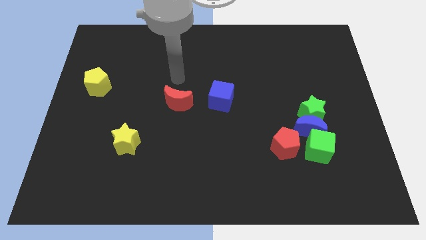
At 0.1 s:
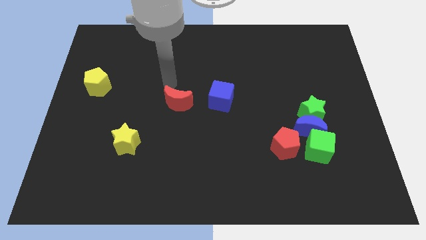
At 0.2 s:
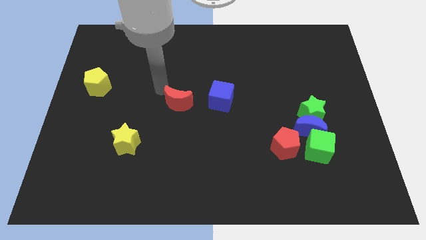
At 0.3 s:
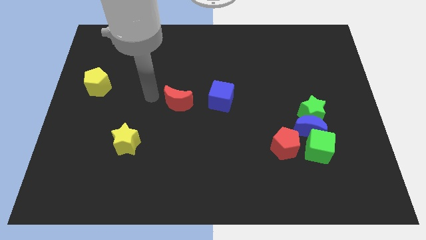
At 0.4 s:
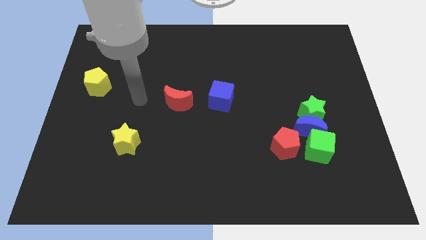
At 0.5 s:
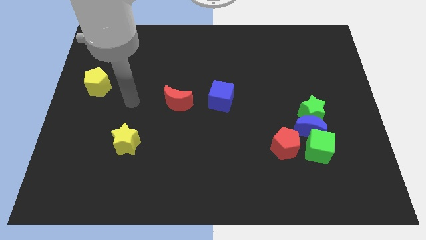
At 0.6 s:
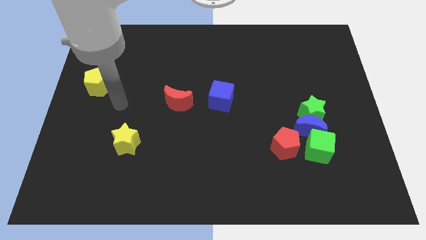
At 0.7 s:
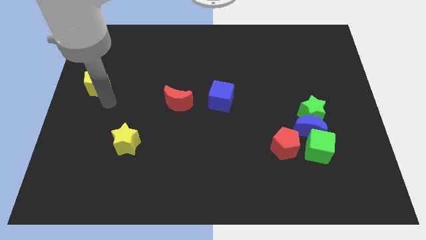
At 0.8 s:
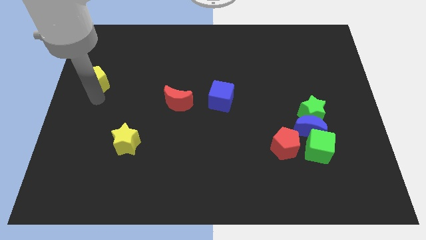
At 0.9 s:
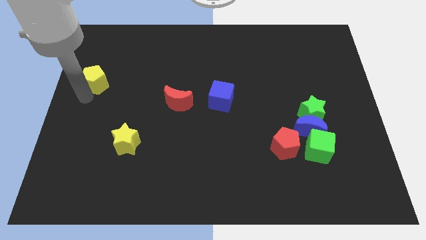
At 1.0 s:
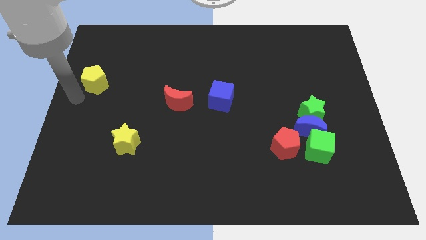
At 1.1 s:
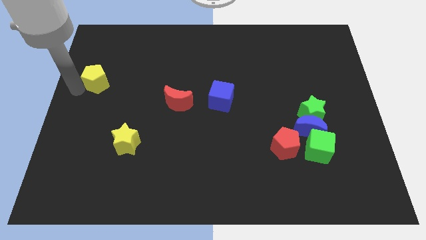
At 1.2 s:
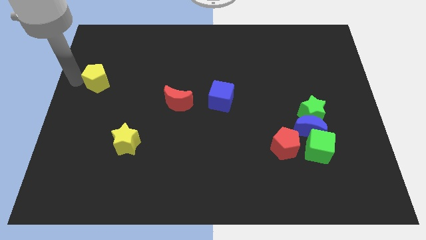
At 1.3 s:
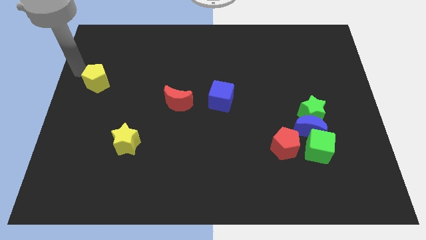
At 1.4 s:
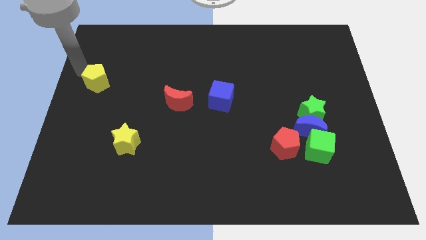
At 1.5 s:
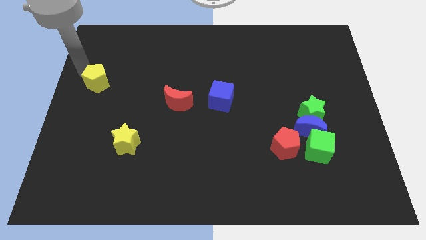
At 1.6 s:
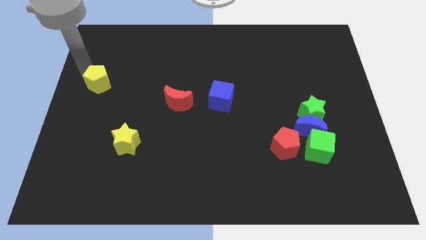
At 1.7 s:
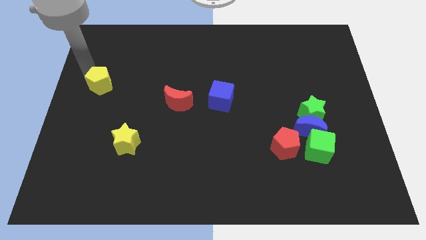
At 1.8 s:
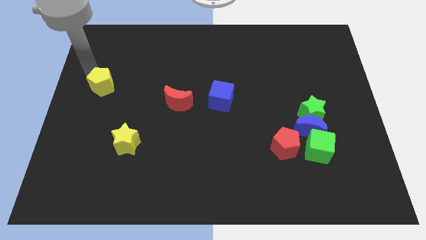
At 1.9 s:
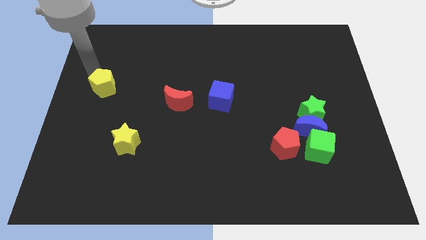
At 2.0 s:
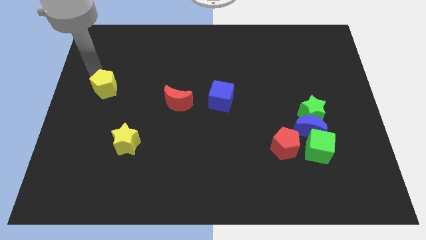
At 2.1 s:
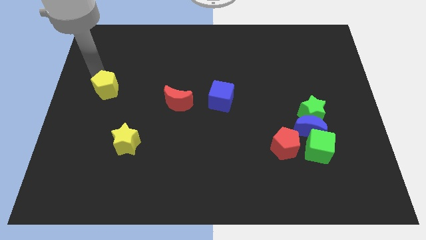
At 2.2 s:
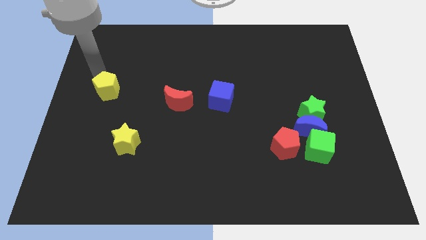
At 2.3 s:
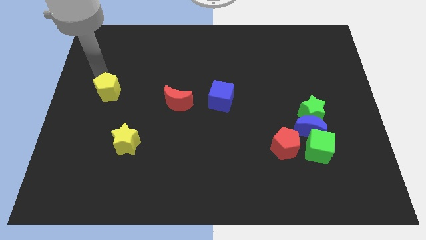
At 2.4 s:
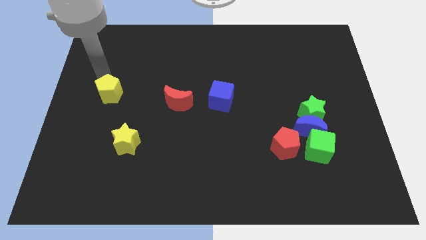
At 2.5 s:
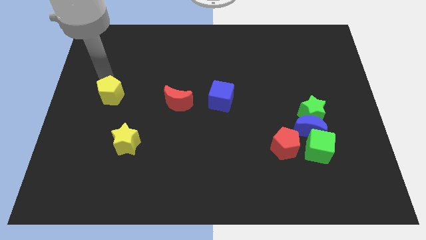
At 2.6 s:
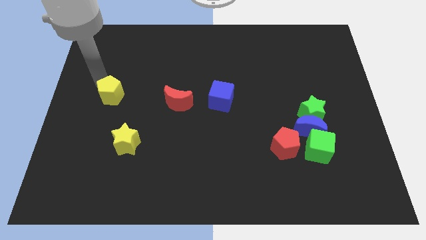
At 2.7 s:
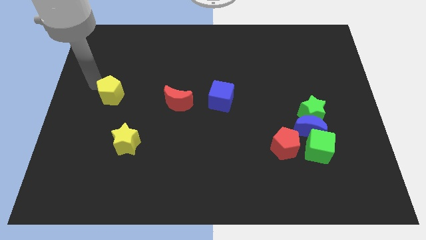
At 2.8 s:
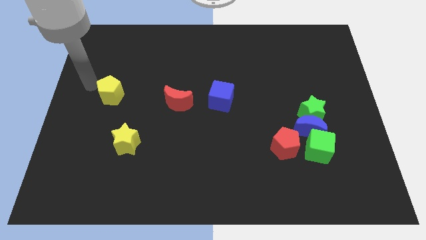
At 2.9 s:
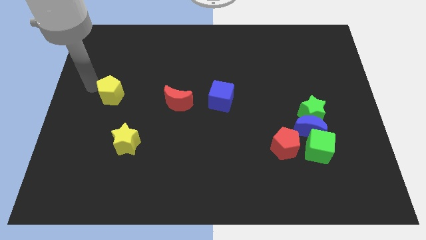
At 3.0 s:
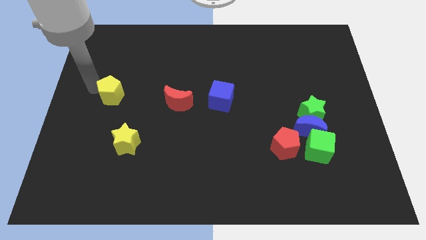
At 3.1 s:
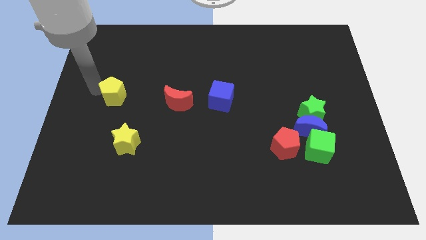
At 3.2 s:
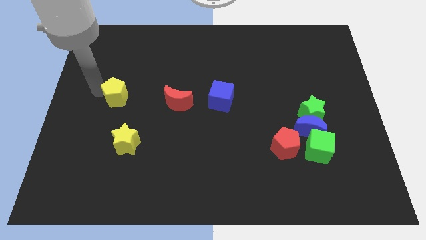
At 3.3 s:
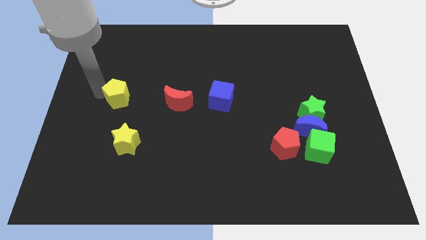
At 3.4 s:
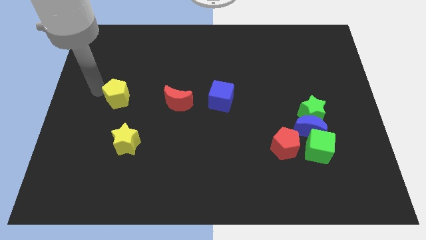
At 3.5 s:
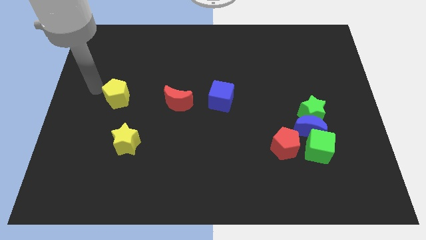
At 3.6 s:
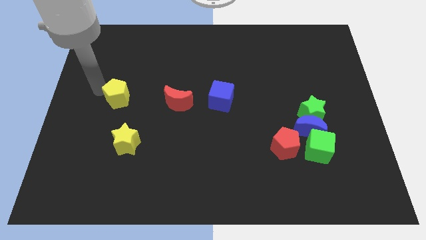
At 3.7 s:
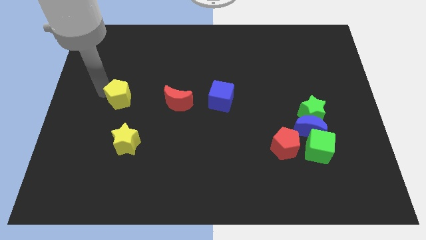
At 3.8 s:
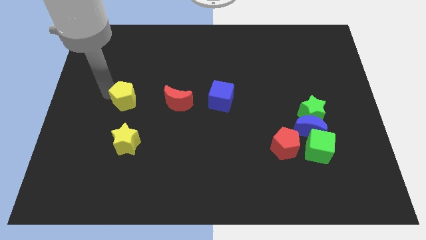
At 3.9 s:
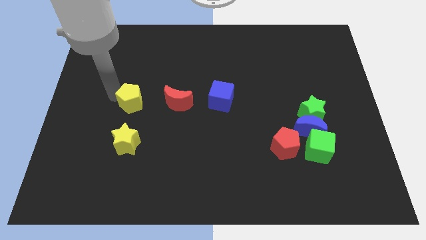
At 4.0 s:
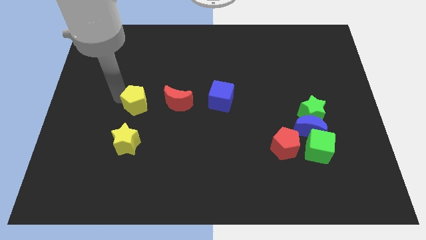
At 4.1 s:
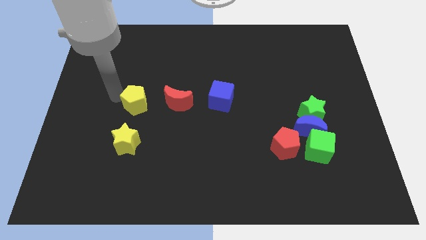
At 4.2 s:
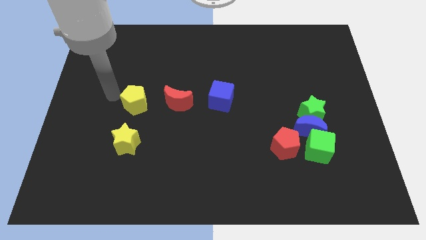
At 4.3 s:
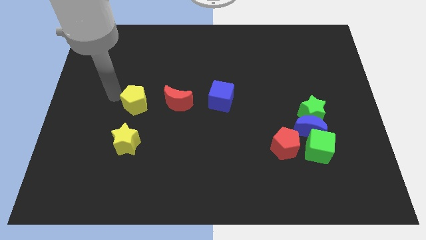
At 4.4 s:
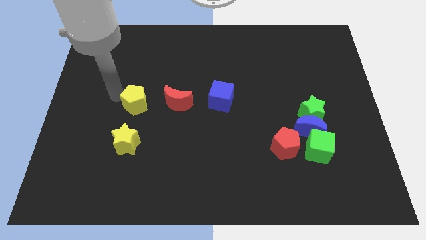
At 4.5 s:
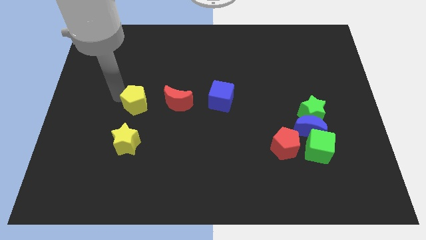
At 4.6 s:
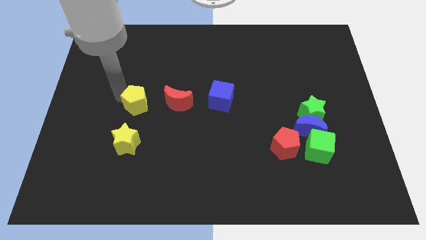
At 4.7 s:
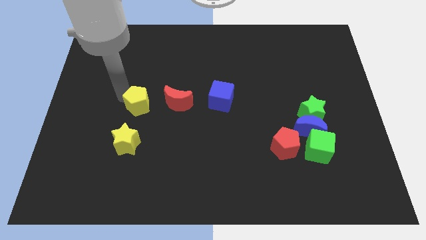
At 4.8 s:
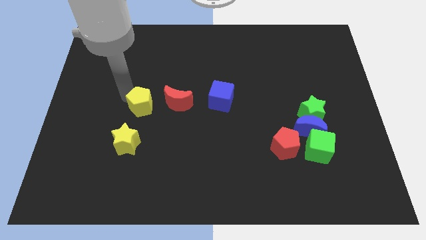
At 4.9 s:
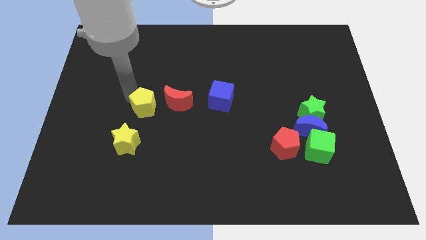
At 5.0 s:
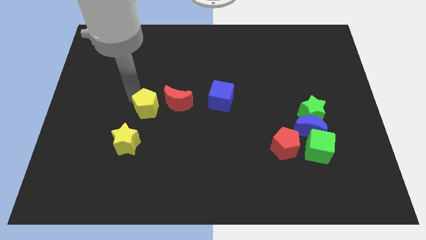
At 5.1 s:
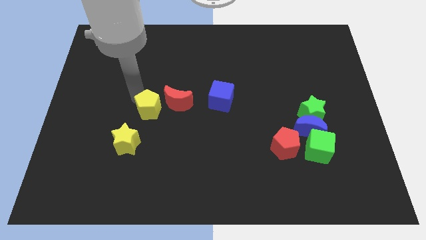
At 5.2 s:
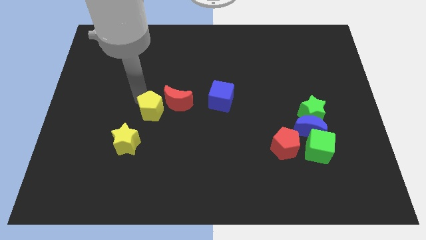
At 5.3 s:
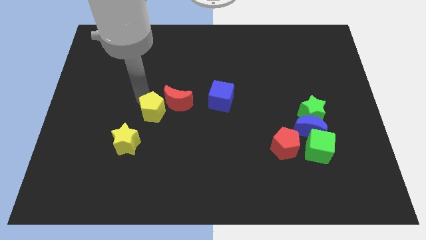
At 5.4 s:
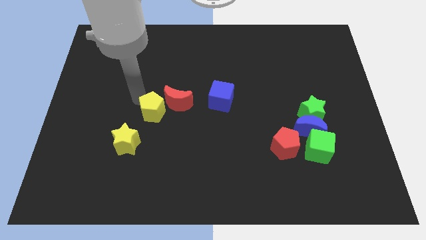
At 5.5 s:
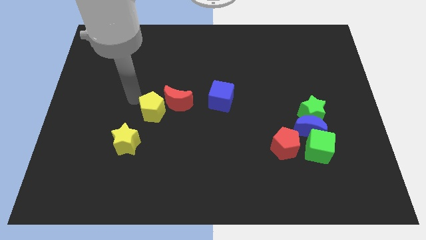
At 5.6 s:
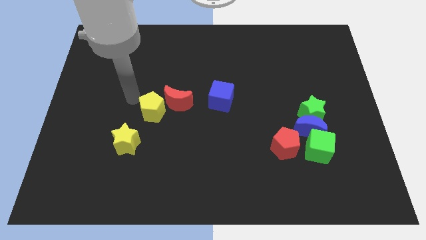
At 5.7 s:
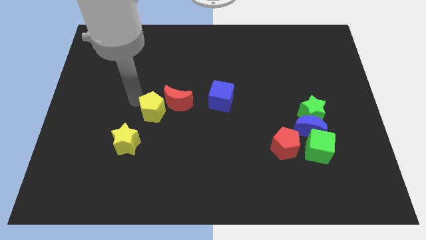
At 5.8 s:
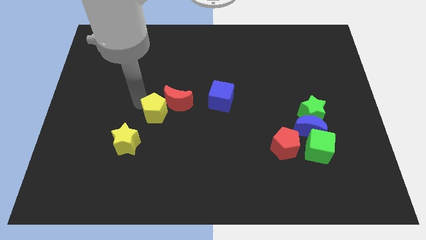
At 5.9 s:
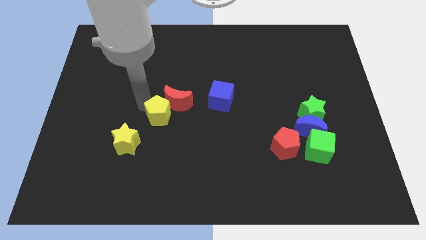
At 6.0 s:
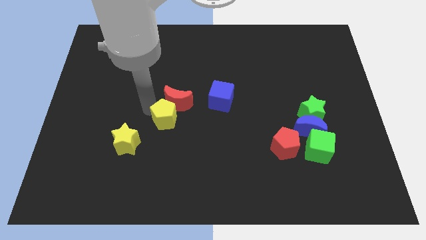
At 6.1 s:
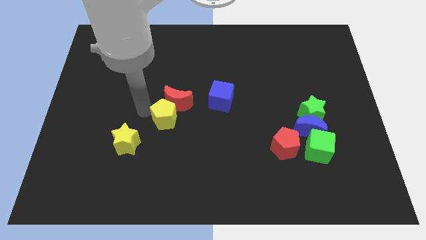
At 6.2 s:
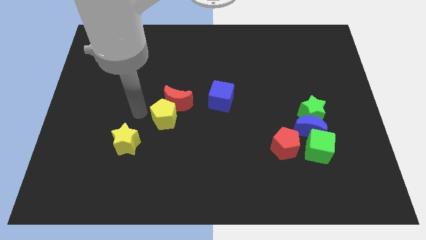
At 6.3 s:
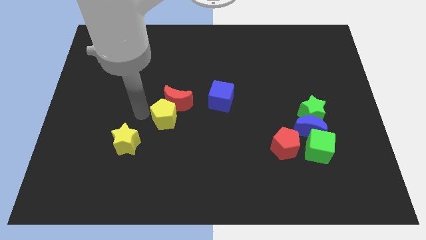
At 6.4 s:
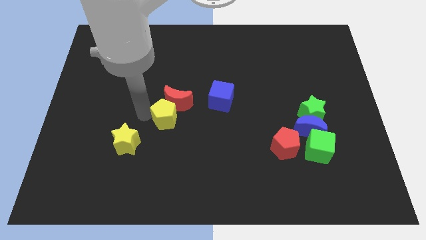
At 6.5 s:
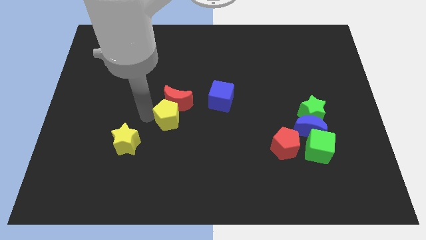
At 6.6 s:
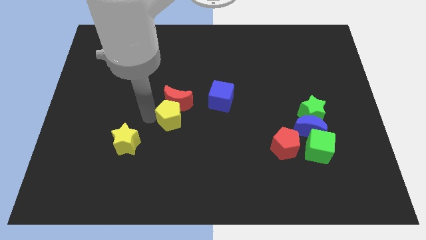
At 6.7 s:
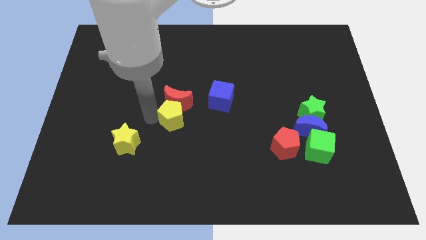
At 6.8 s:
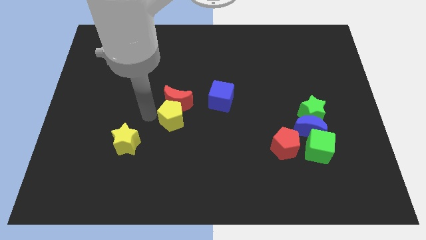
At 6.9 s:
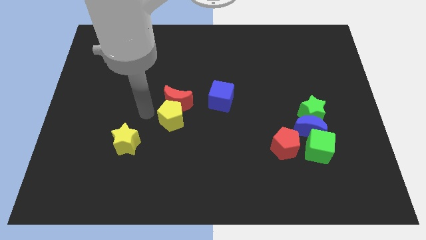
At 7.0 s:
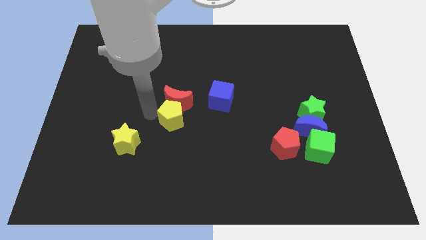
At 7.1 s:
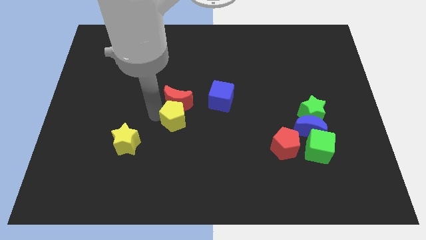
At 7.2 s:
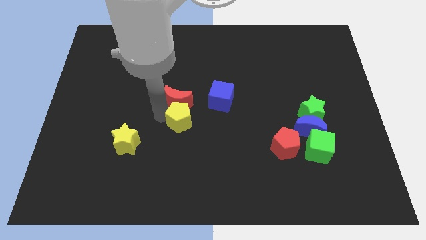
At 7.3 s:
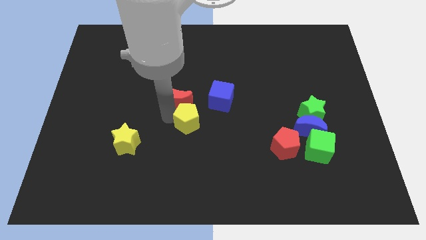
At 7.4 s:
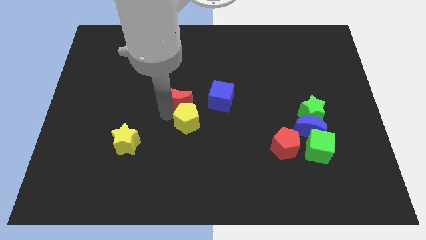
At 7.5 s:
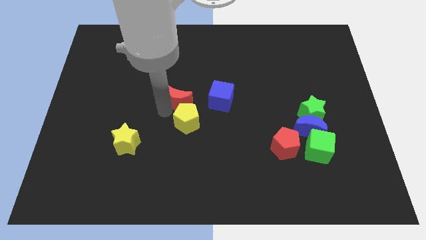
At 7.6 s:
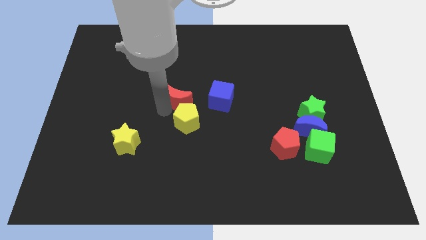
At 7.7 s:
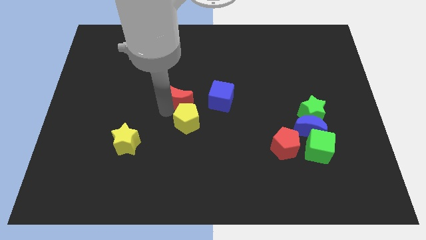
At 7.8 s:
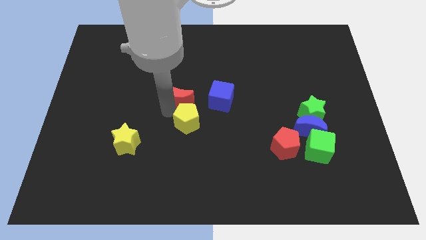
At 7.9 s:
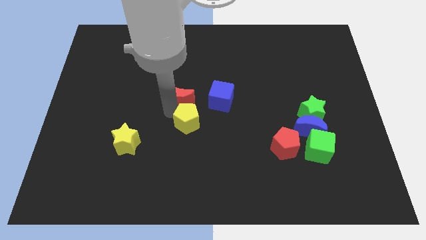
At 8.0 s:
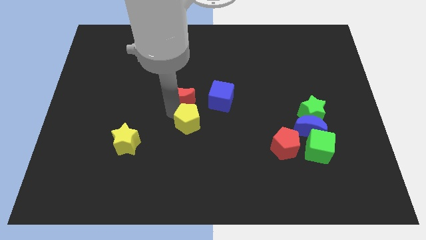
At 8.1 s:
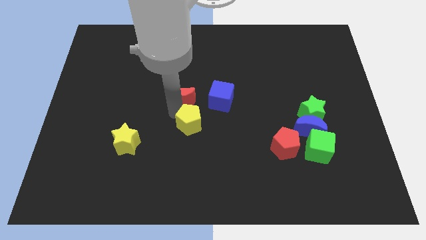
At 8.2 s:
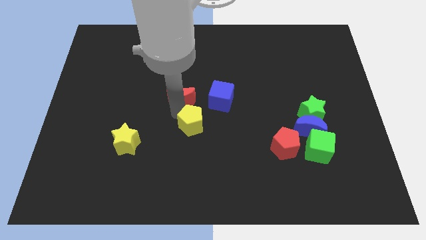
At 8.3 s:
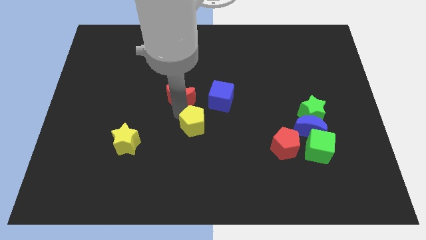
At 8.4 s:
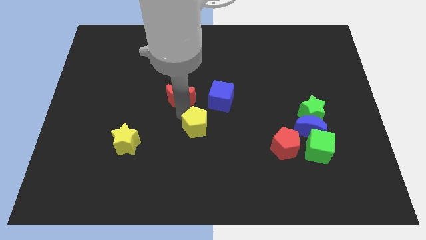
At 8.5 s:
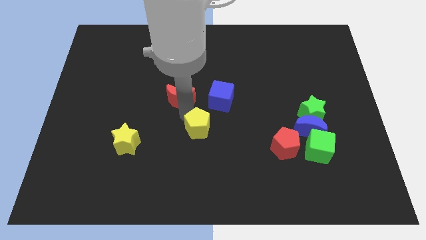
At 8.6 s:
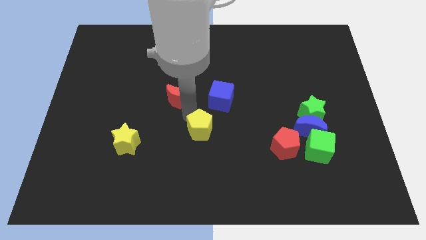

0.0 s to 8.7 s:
move the yellow pentagon to the bottom side of the blue cube
